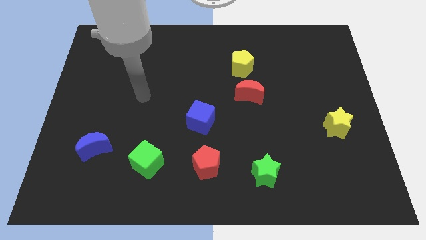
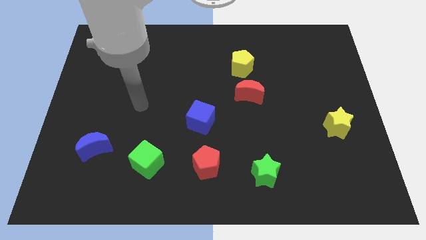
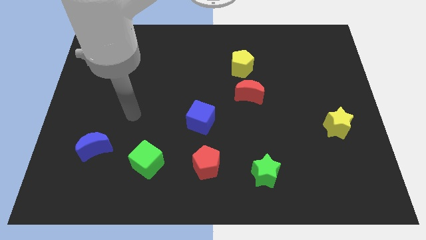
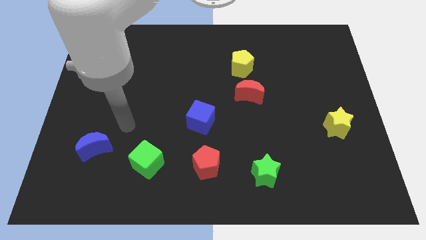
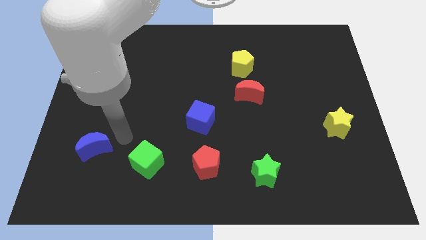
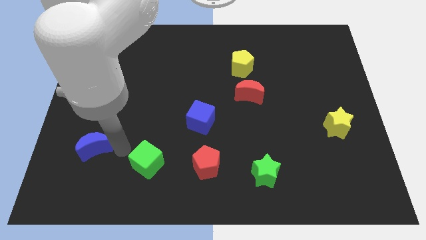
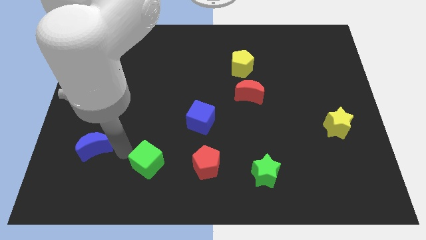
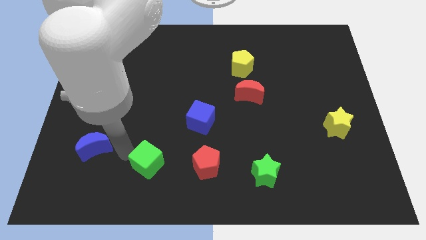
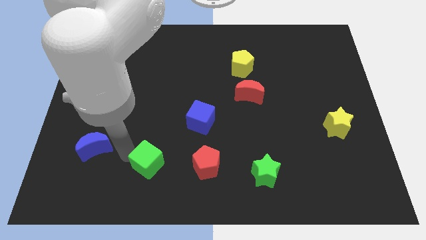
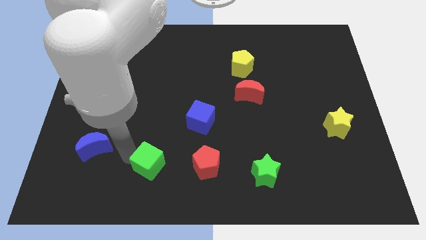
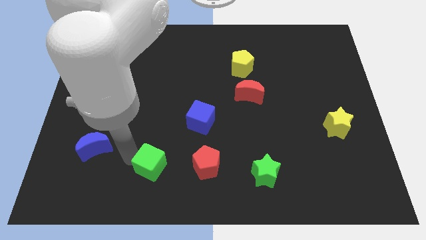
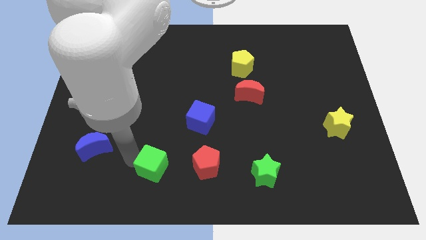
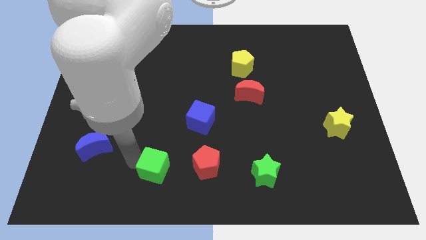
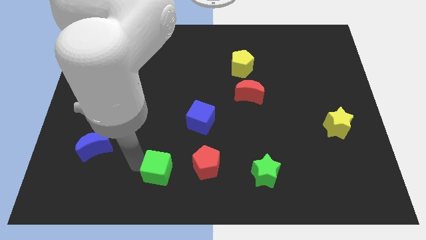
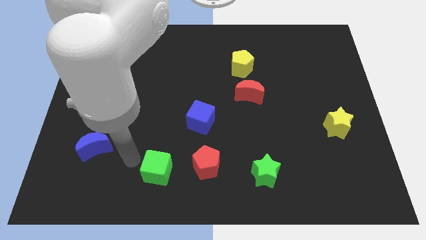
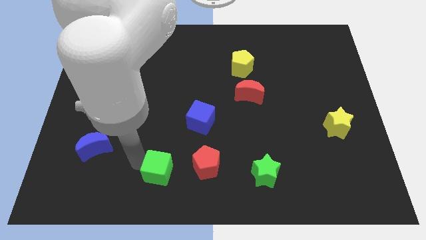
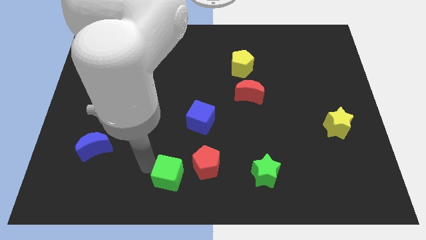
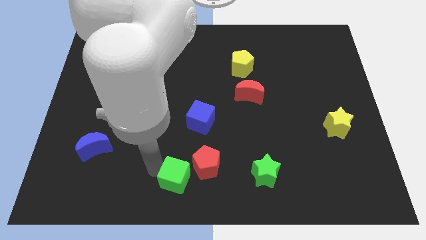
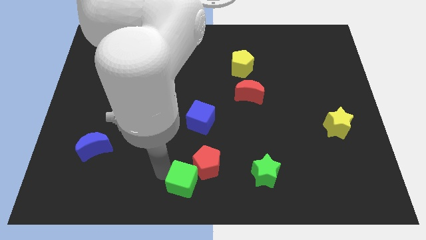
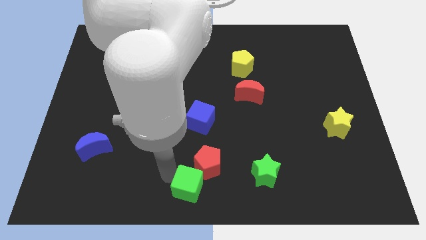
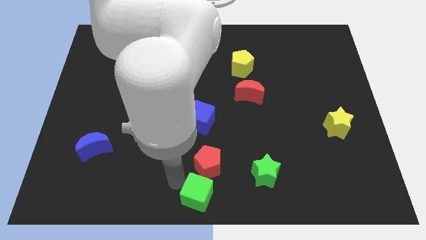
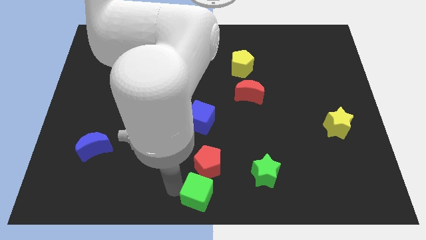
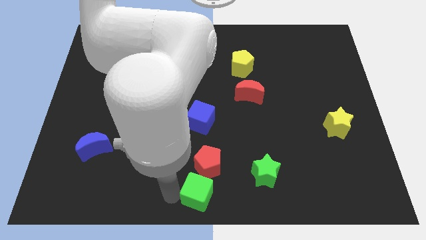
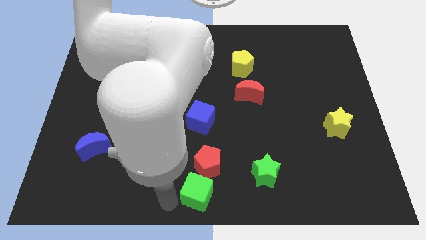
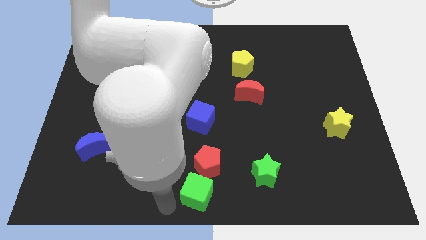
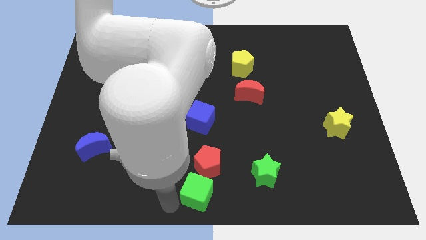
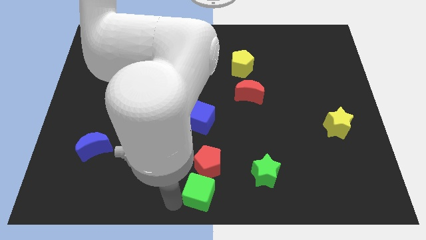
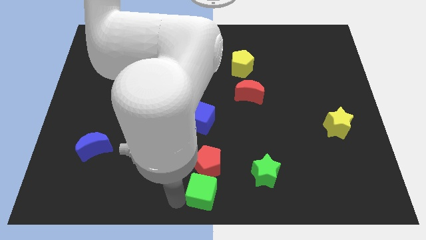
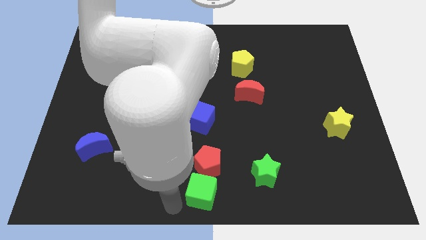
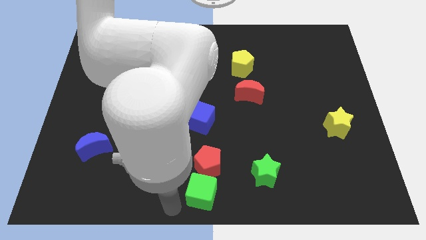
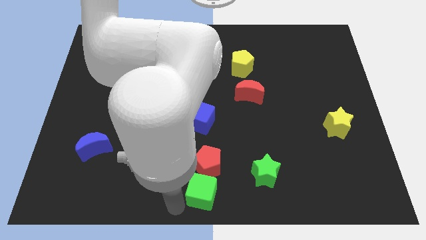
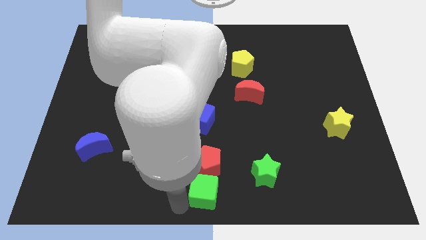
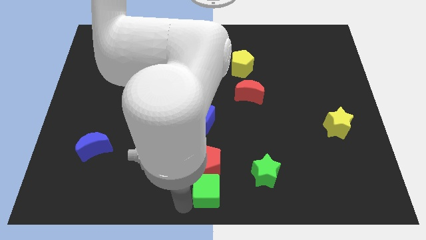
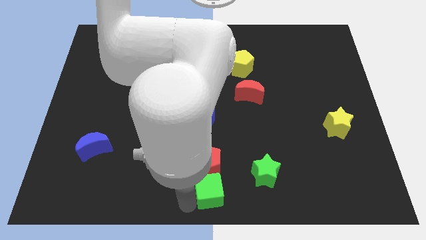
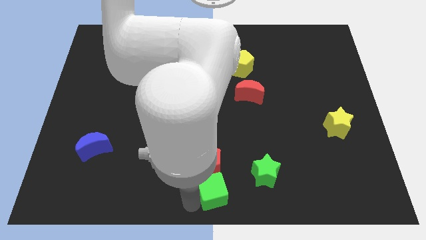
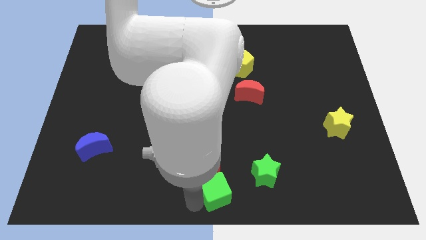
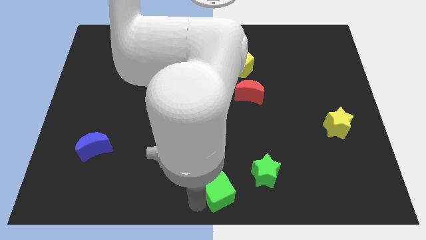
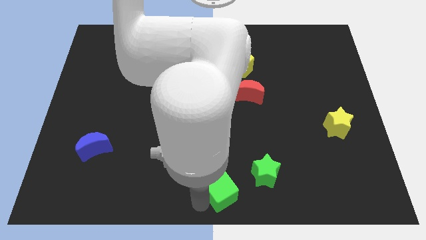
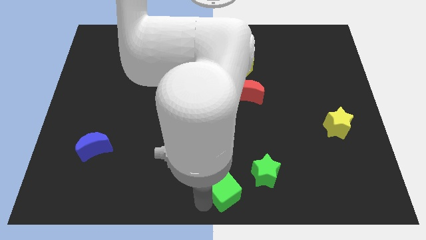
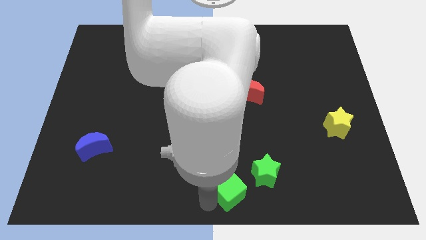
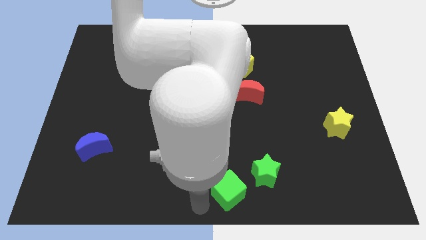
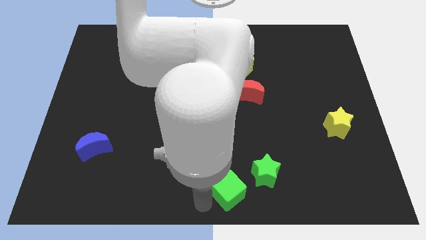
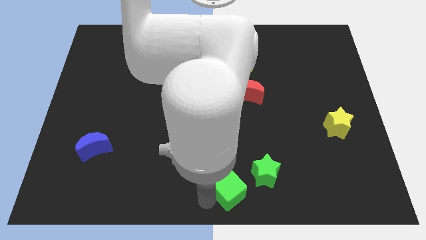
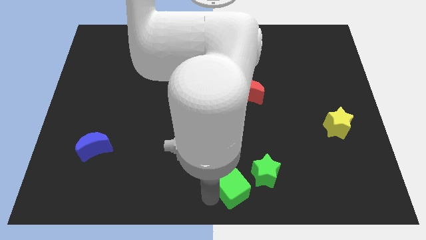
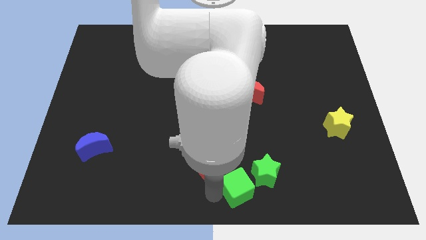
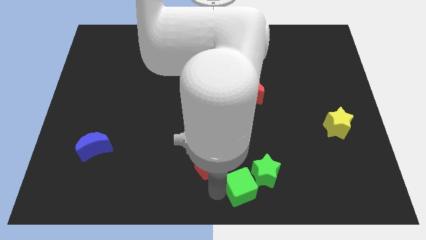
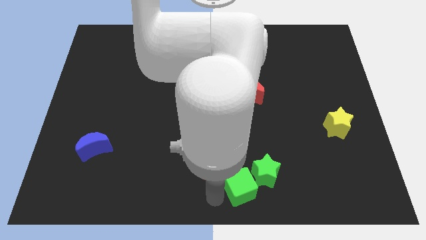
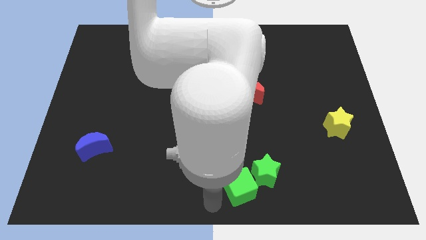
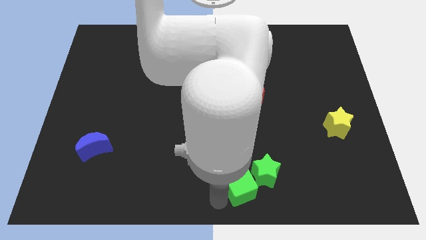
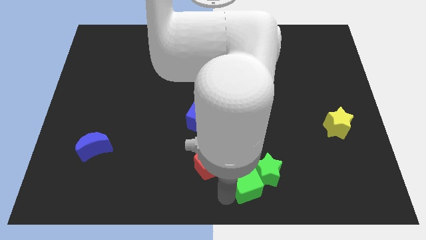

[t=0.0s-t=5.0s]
push the green cube towards the green star

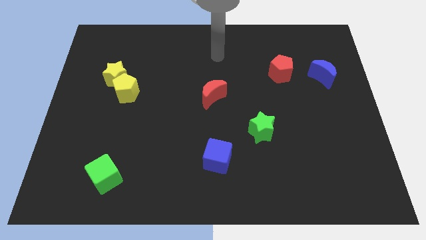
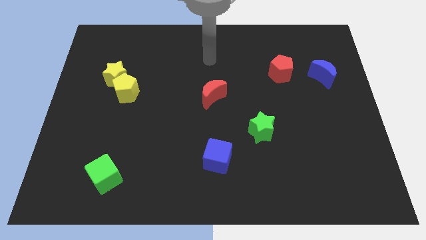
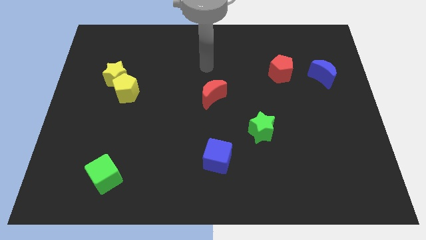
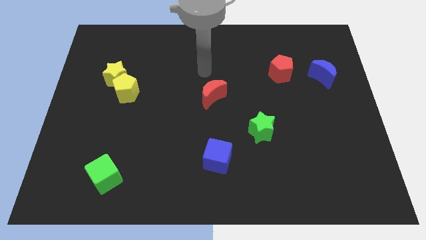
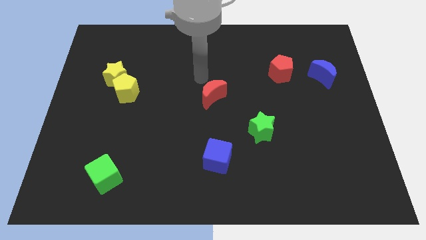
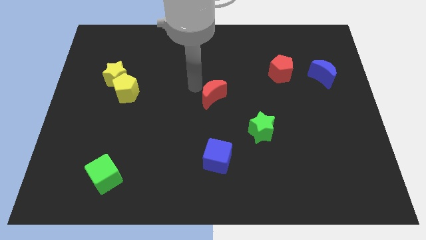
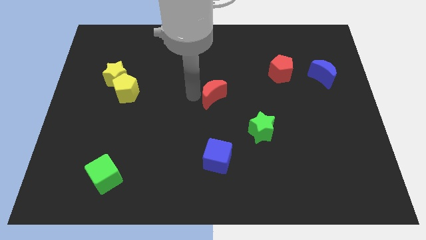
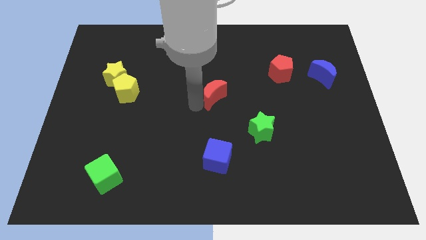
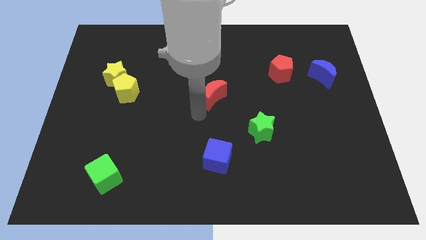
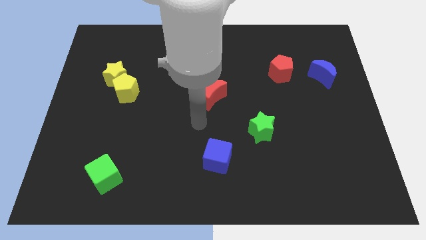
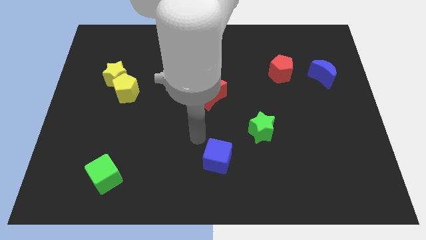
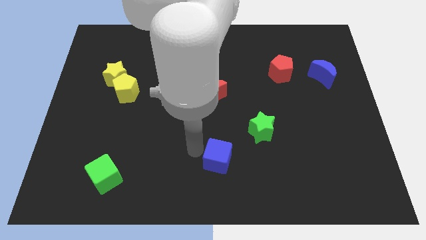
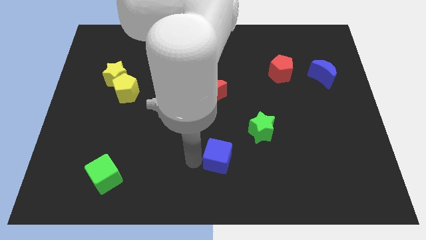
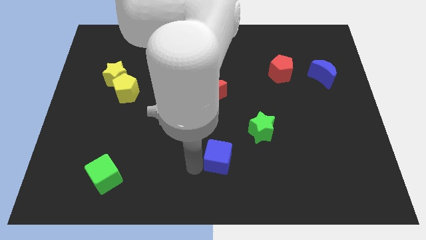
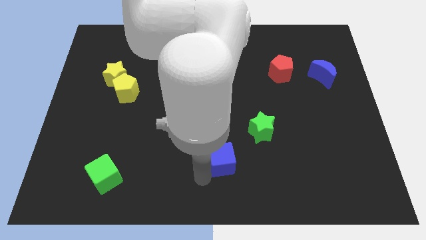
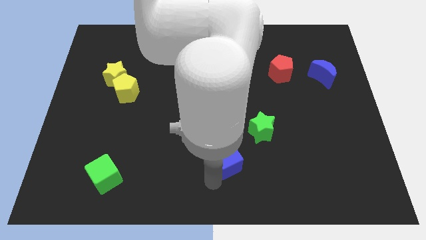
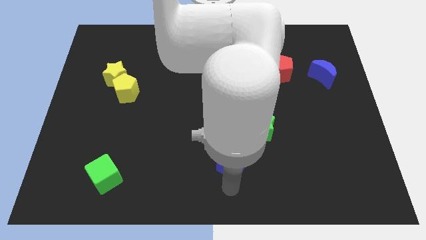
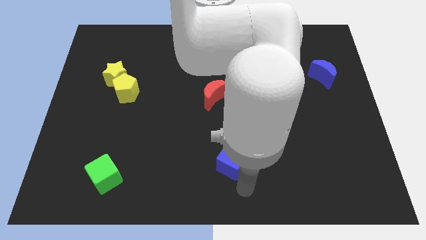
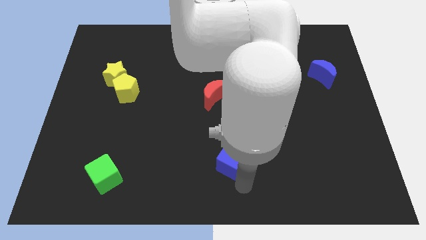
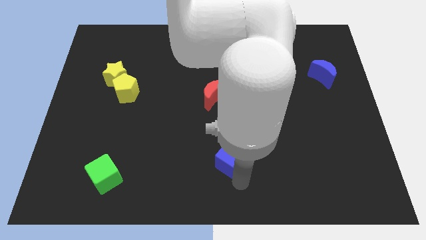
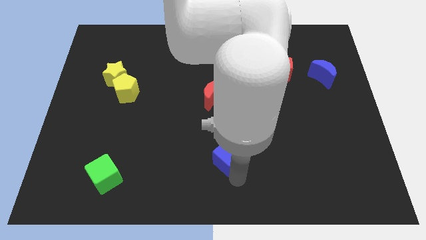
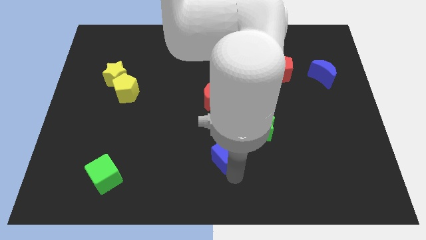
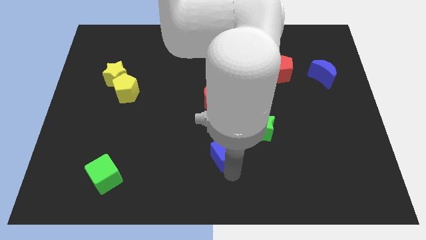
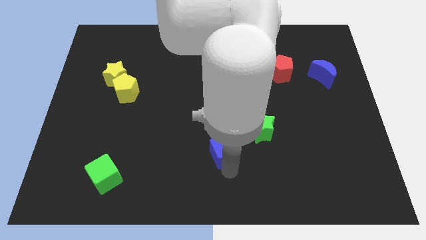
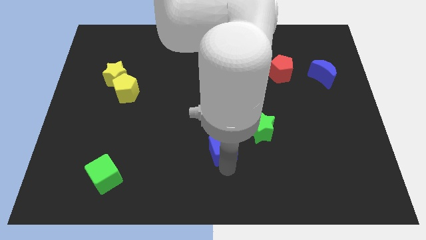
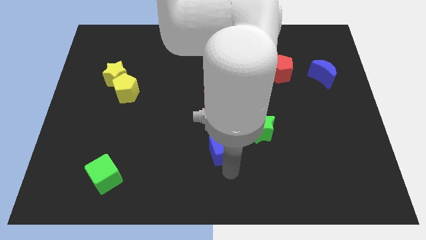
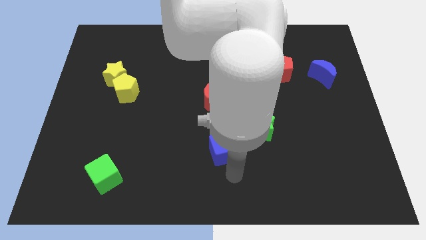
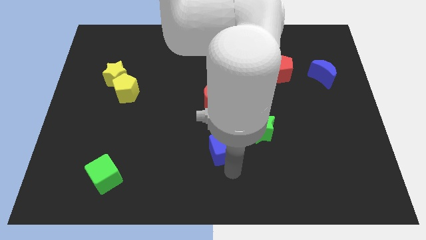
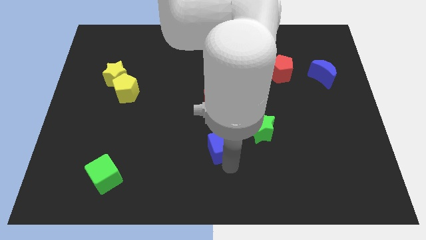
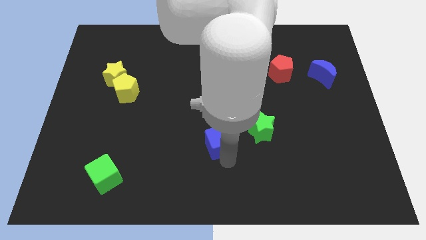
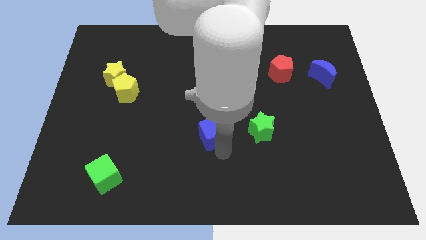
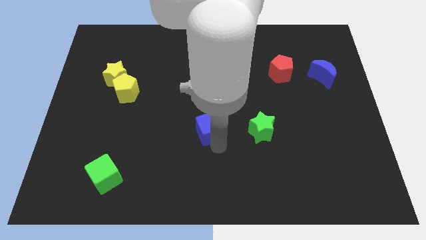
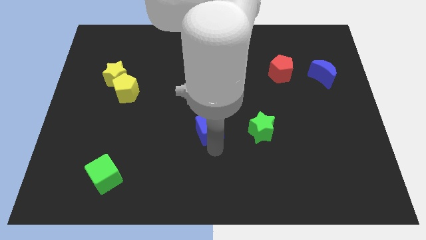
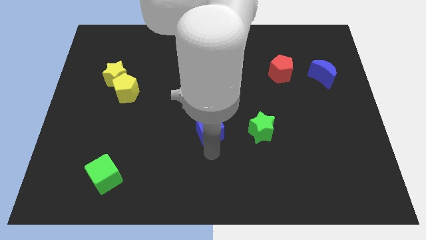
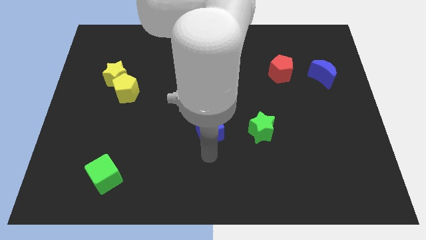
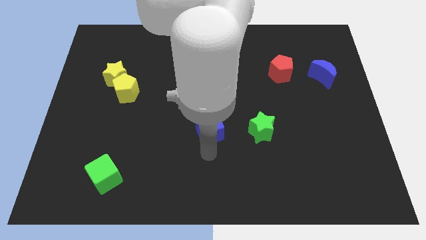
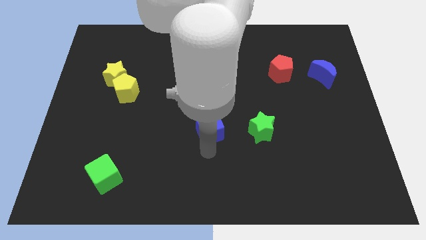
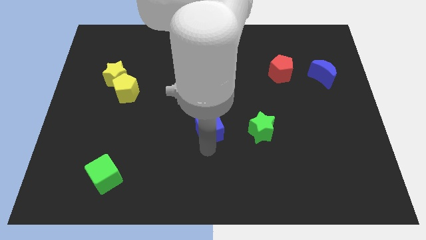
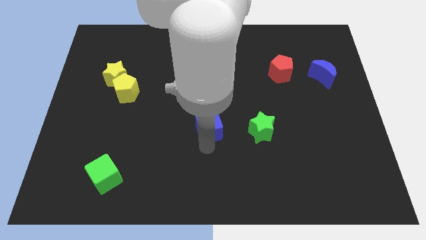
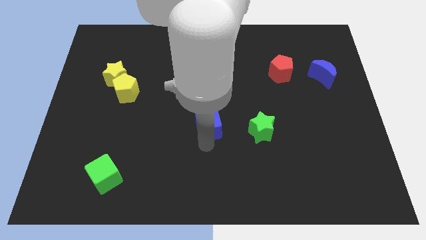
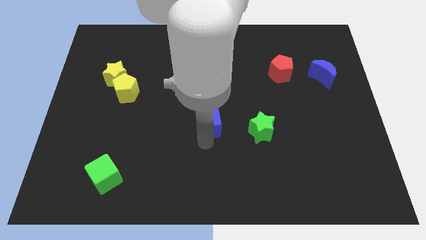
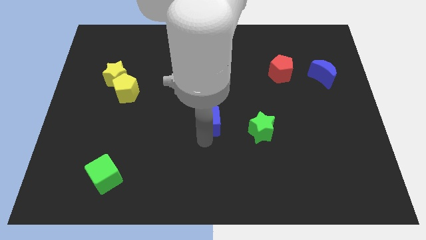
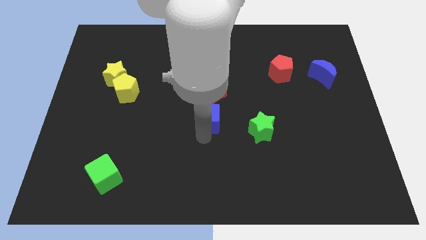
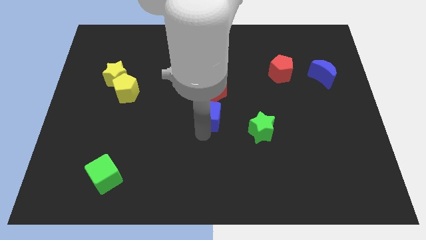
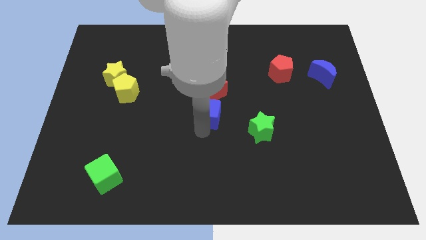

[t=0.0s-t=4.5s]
slide the blue cube next to the red moon
